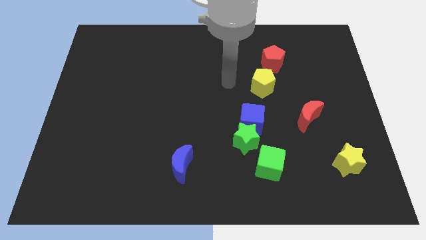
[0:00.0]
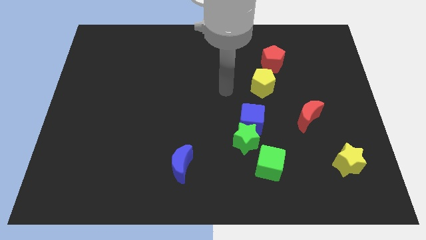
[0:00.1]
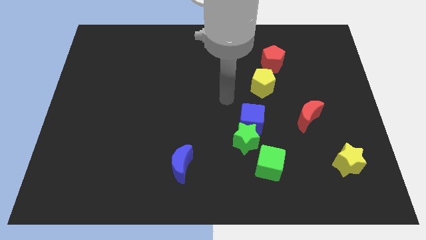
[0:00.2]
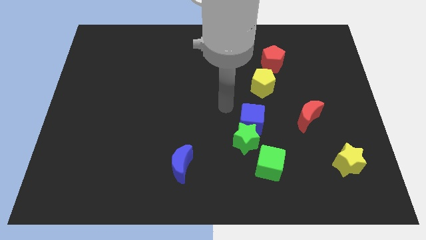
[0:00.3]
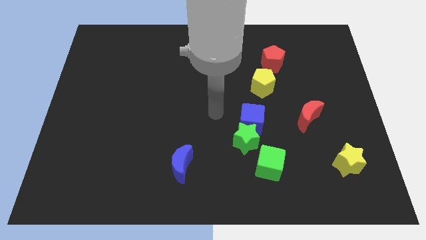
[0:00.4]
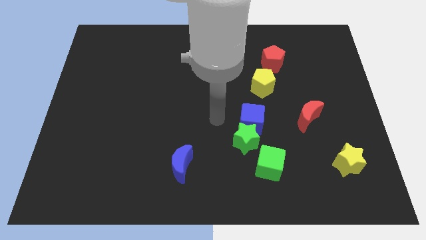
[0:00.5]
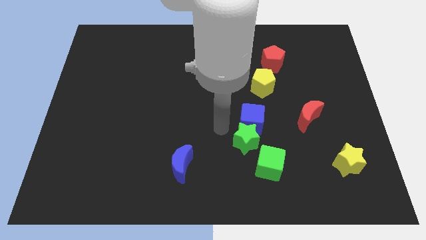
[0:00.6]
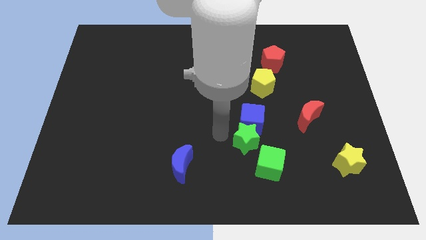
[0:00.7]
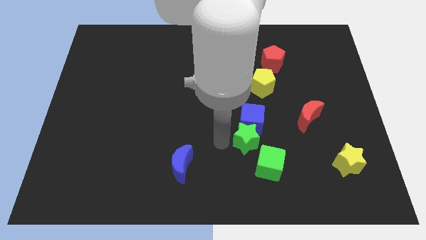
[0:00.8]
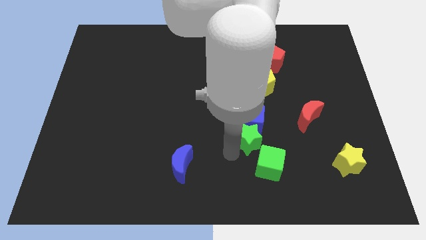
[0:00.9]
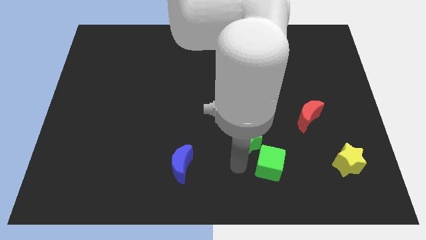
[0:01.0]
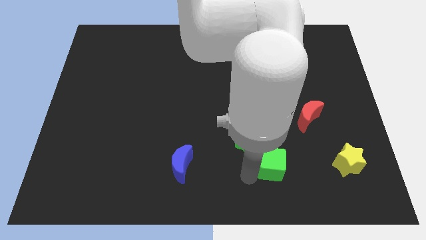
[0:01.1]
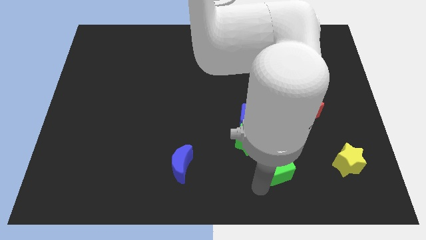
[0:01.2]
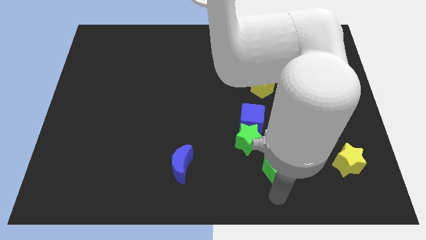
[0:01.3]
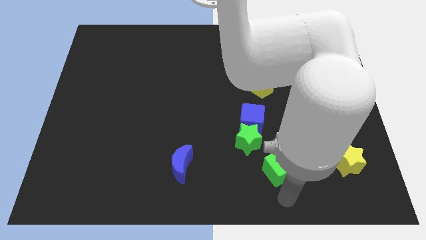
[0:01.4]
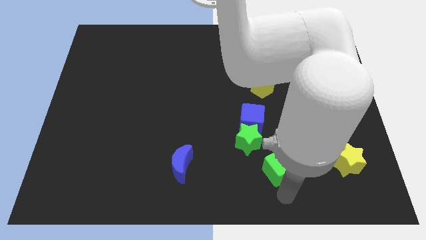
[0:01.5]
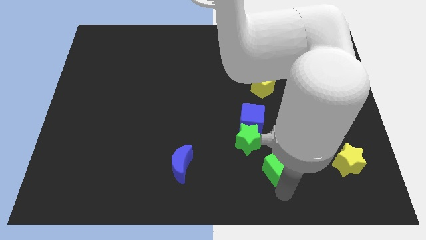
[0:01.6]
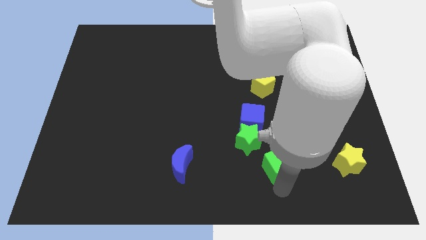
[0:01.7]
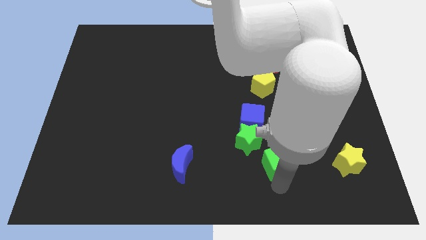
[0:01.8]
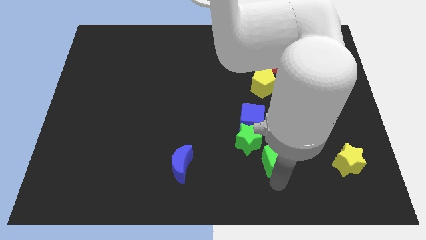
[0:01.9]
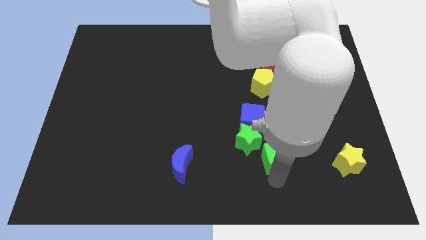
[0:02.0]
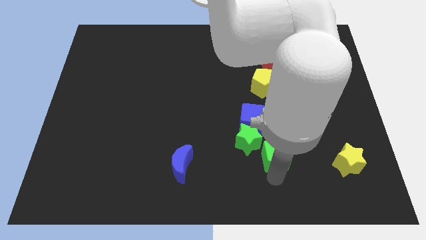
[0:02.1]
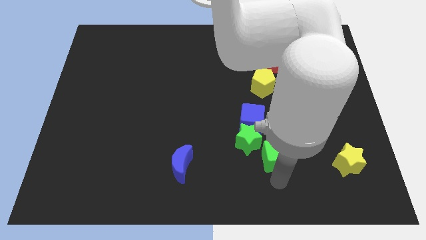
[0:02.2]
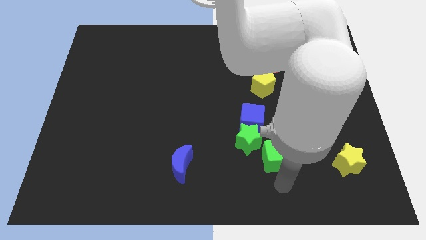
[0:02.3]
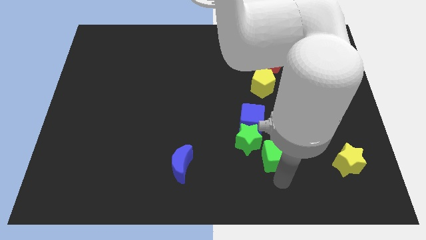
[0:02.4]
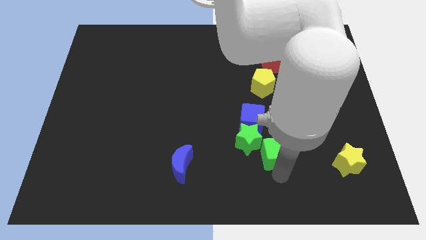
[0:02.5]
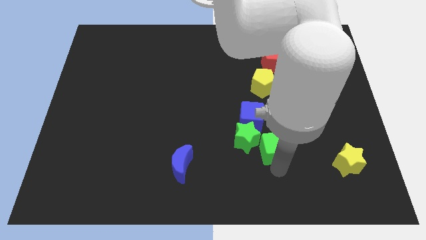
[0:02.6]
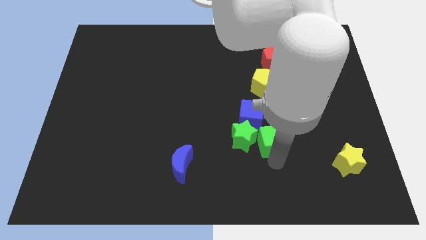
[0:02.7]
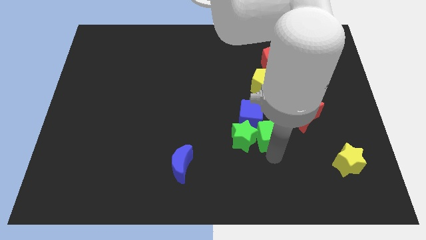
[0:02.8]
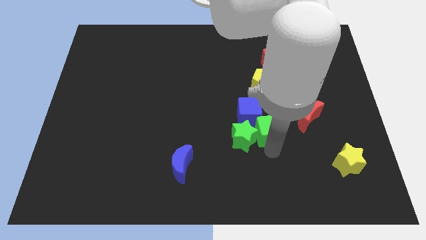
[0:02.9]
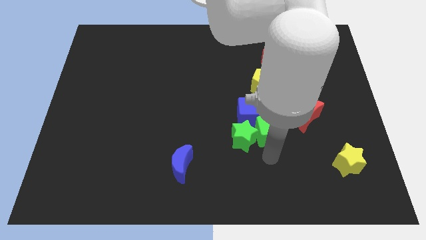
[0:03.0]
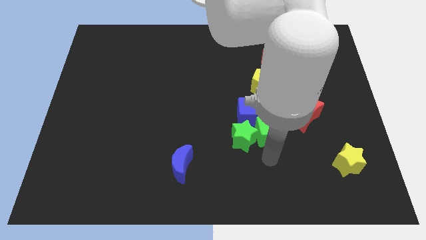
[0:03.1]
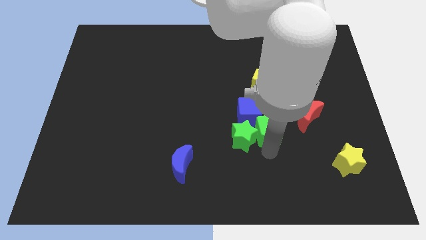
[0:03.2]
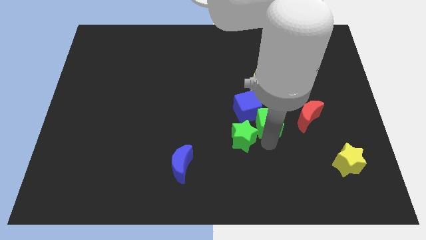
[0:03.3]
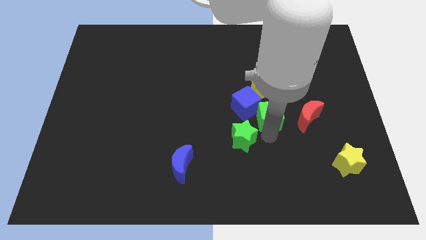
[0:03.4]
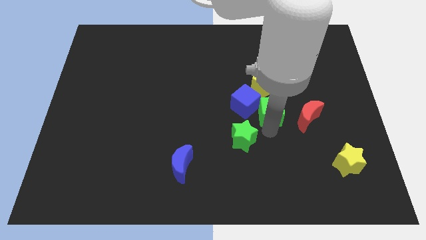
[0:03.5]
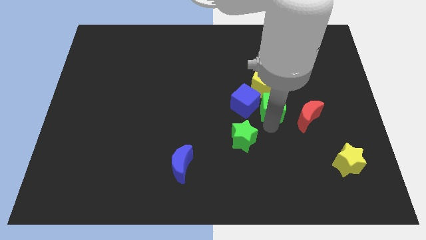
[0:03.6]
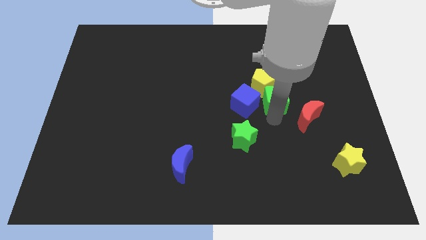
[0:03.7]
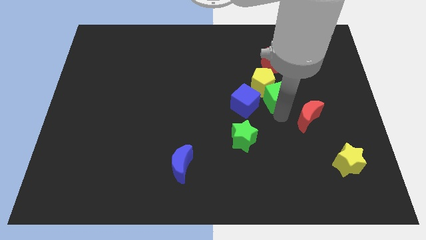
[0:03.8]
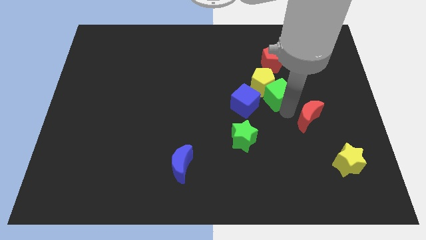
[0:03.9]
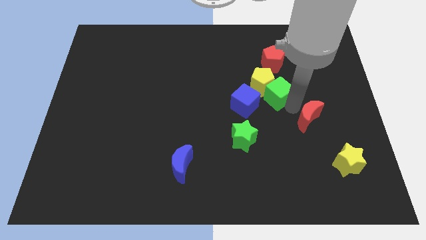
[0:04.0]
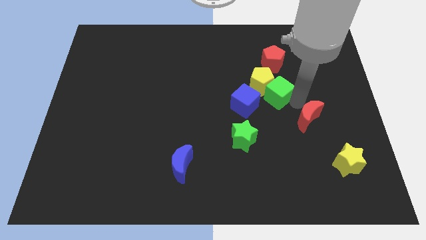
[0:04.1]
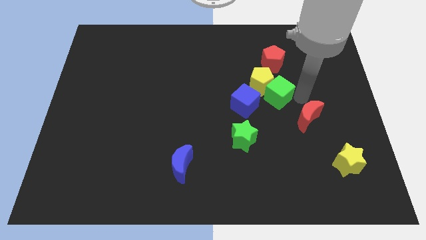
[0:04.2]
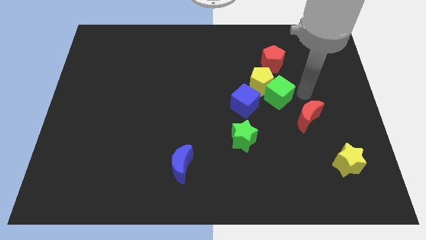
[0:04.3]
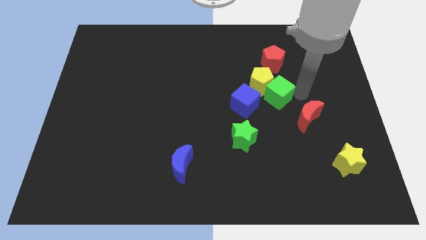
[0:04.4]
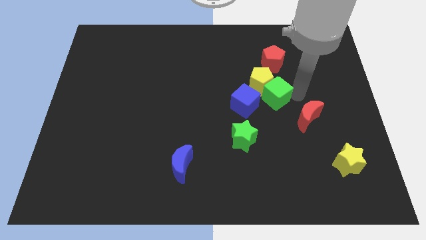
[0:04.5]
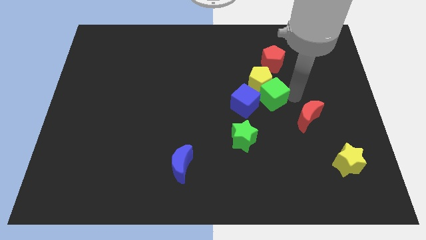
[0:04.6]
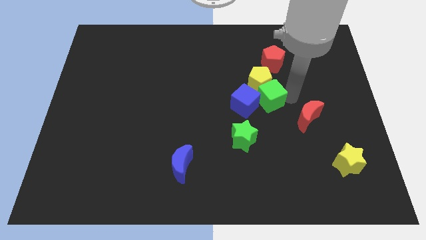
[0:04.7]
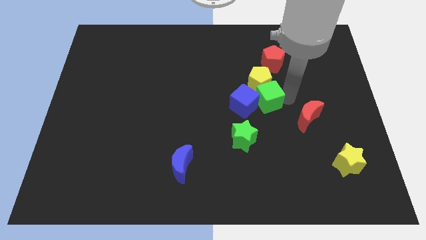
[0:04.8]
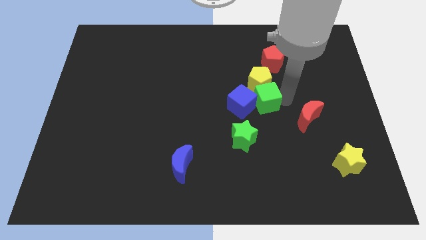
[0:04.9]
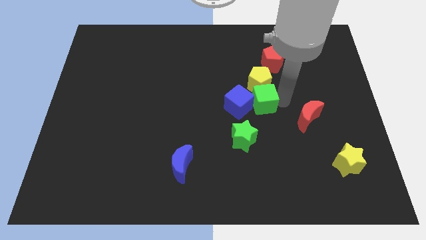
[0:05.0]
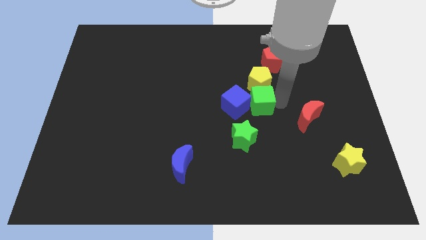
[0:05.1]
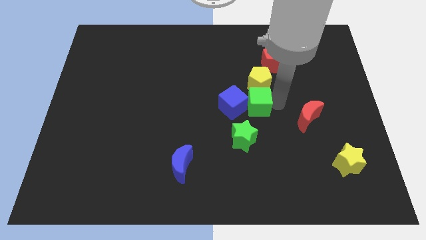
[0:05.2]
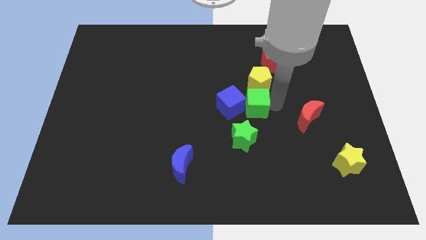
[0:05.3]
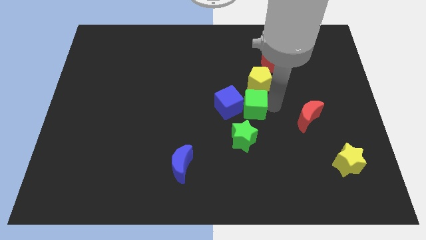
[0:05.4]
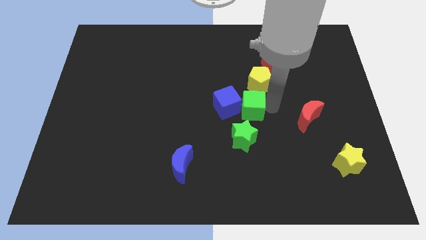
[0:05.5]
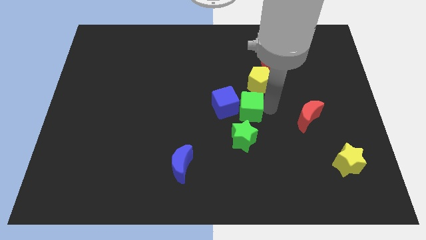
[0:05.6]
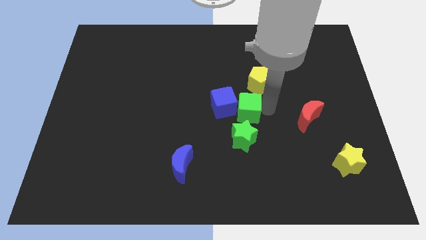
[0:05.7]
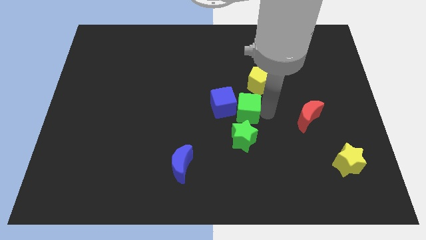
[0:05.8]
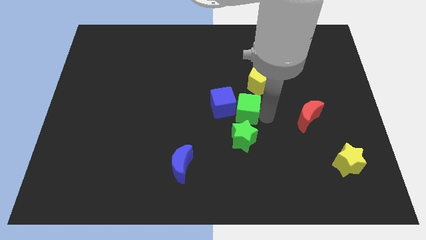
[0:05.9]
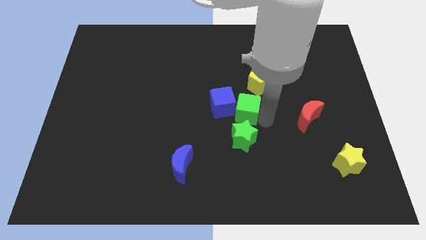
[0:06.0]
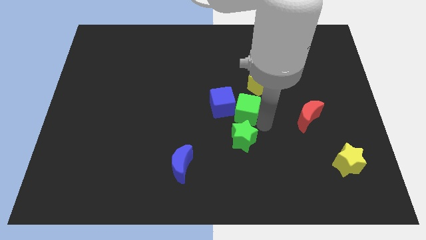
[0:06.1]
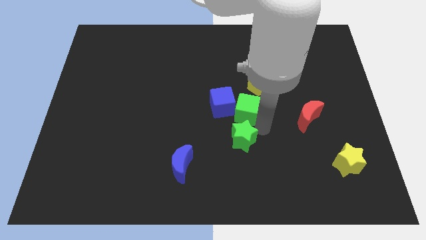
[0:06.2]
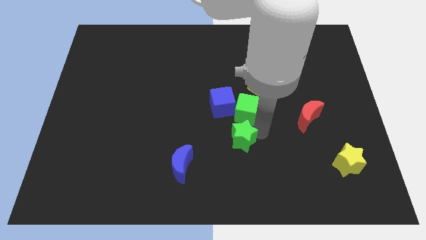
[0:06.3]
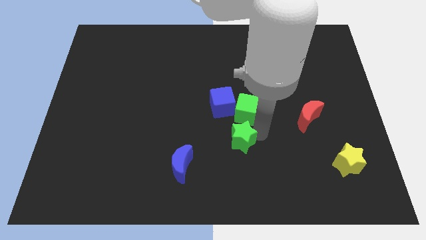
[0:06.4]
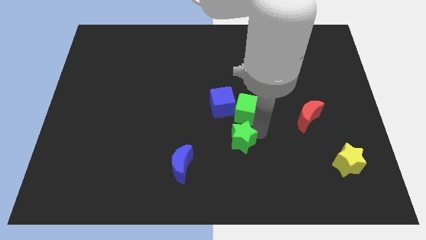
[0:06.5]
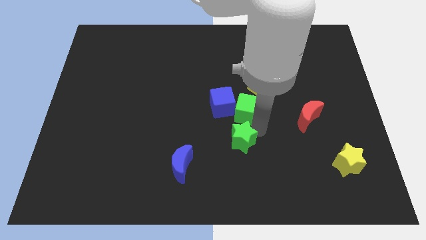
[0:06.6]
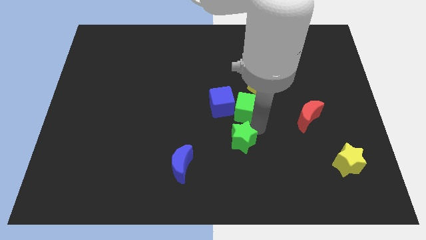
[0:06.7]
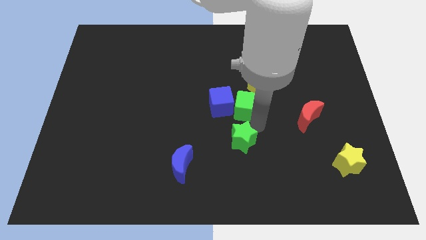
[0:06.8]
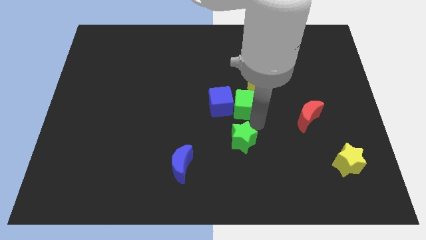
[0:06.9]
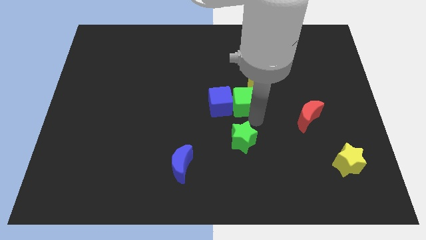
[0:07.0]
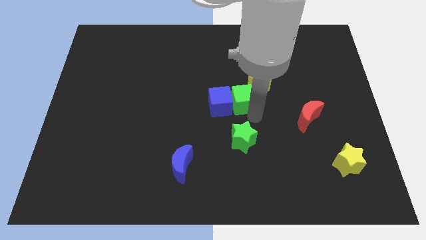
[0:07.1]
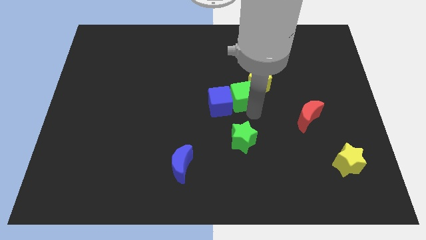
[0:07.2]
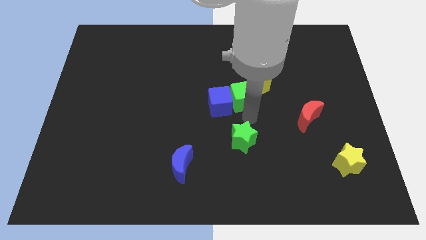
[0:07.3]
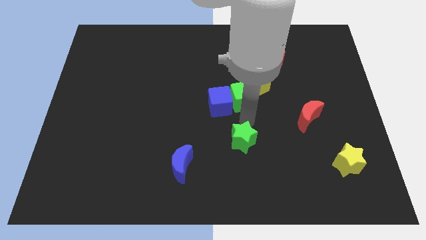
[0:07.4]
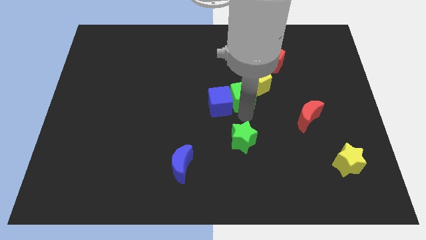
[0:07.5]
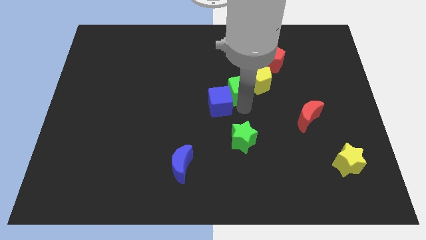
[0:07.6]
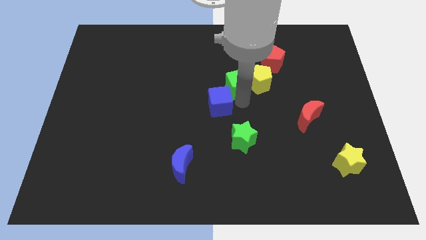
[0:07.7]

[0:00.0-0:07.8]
move the green cube up

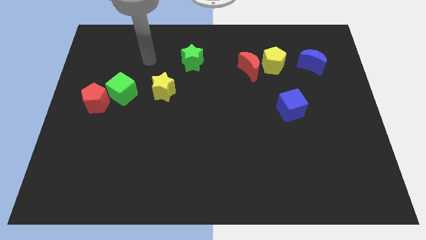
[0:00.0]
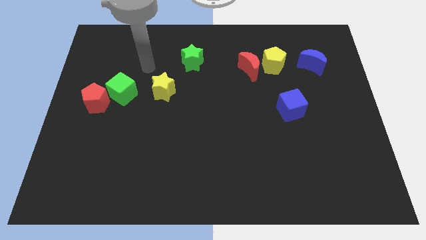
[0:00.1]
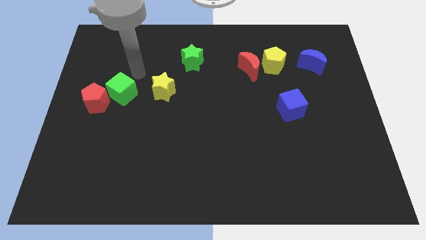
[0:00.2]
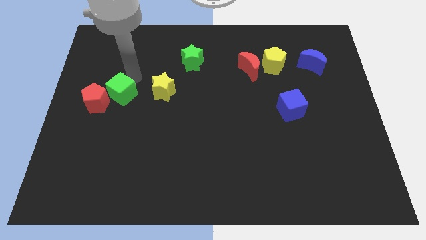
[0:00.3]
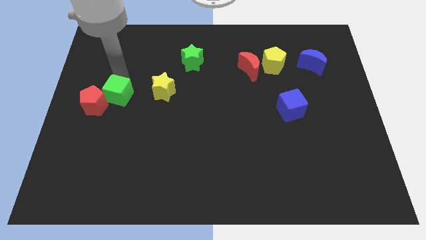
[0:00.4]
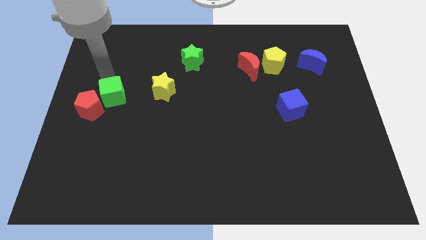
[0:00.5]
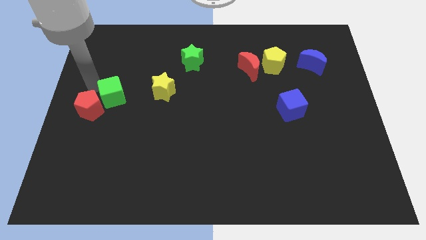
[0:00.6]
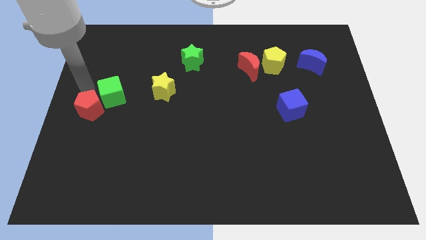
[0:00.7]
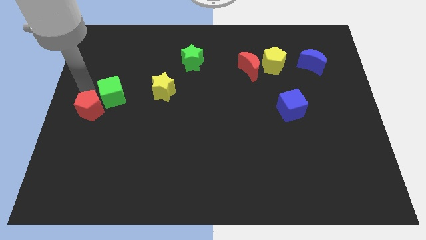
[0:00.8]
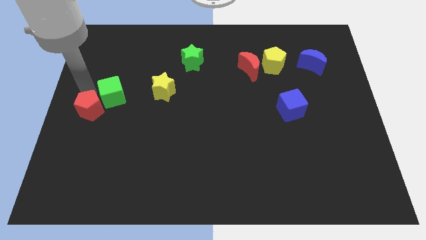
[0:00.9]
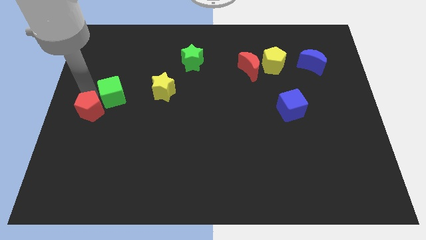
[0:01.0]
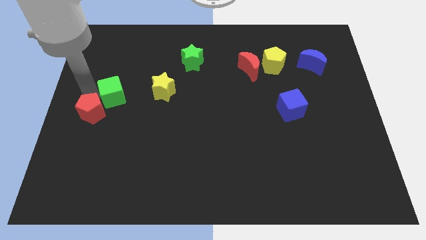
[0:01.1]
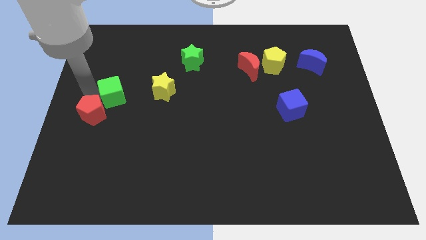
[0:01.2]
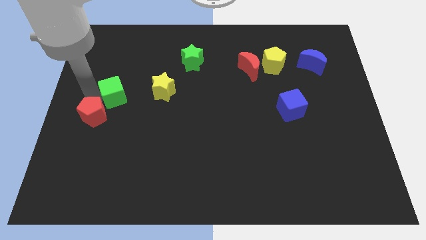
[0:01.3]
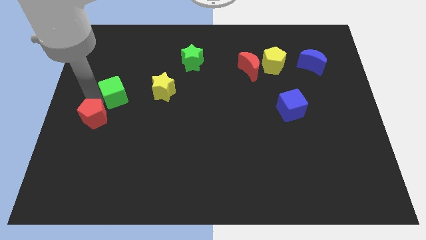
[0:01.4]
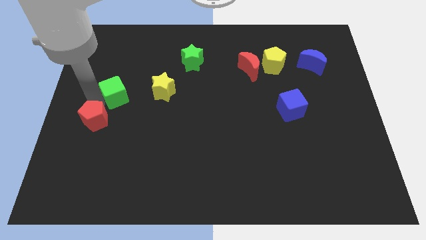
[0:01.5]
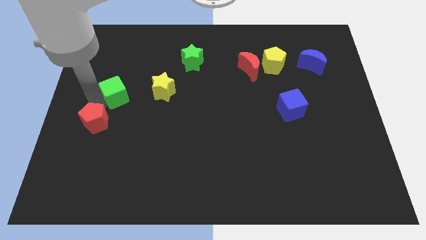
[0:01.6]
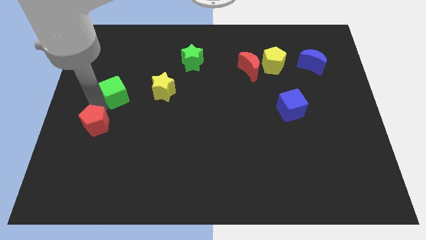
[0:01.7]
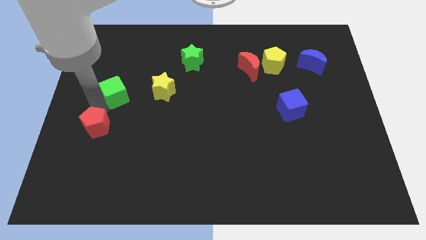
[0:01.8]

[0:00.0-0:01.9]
slightly push the red pentagon down
